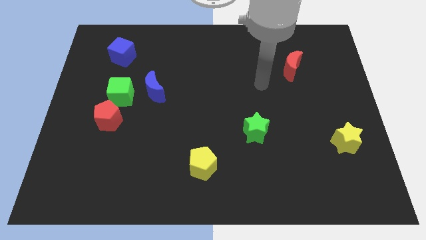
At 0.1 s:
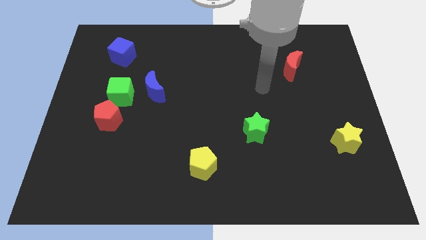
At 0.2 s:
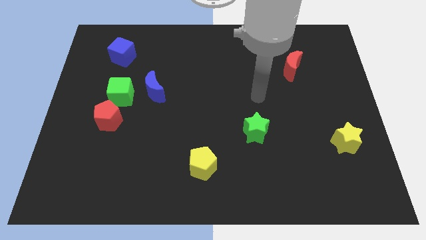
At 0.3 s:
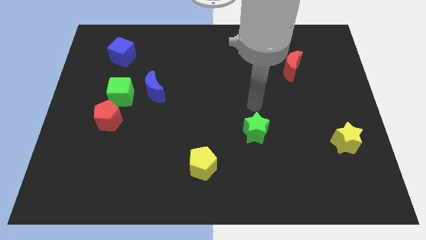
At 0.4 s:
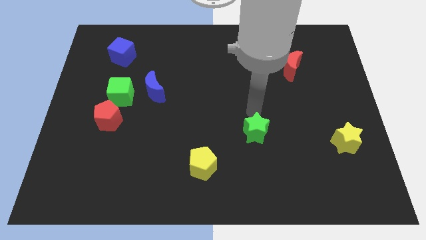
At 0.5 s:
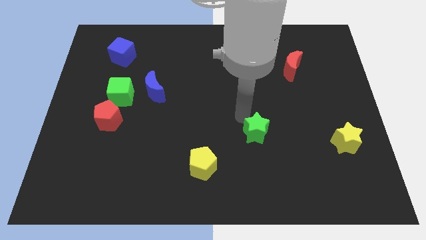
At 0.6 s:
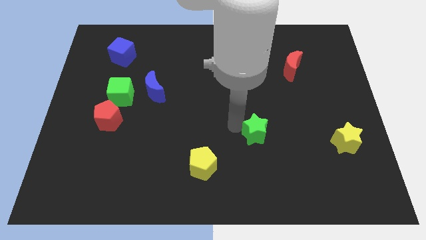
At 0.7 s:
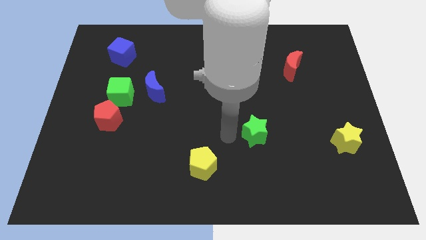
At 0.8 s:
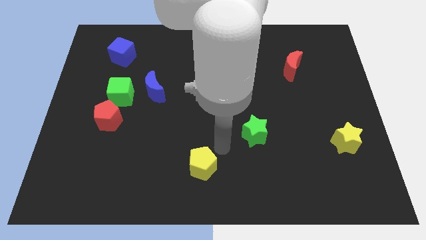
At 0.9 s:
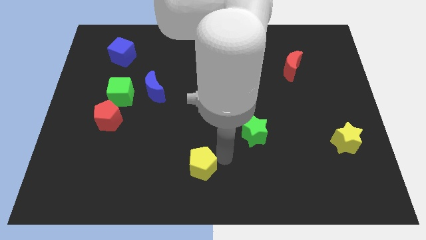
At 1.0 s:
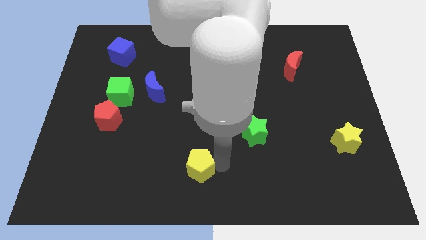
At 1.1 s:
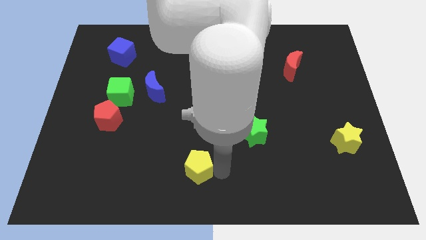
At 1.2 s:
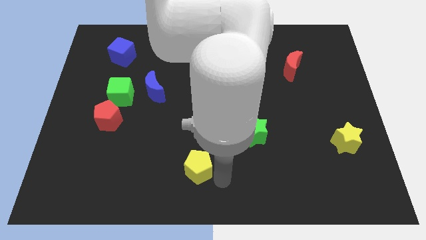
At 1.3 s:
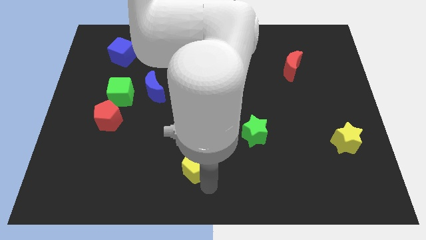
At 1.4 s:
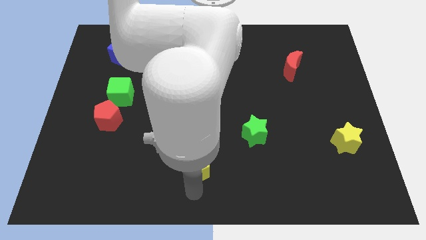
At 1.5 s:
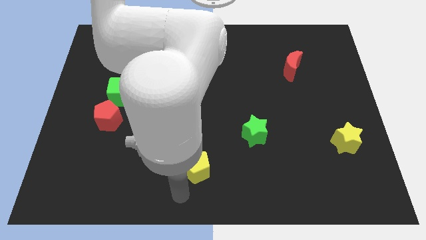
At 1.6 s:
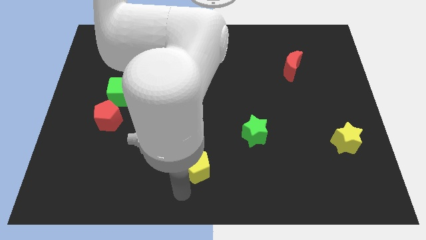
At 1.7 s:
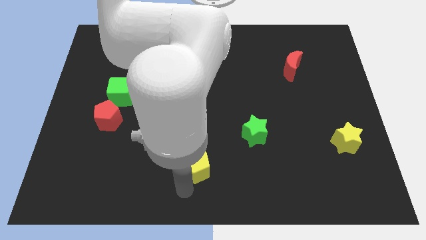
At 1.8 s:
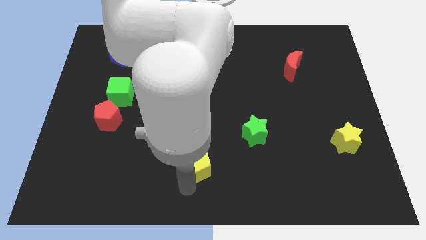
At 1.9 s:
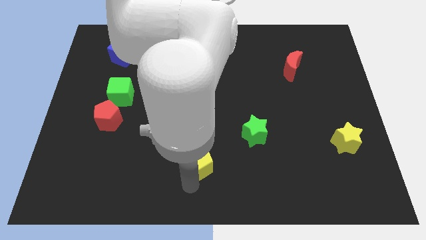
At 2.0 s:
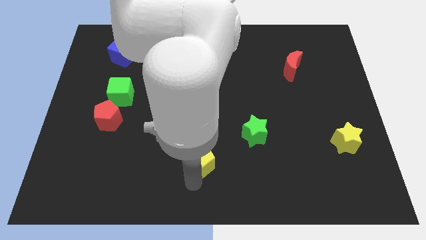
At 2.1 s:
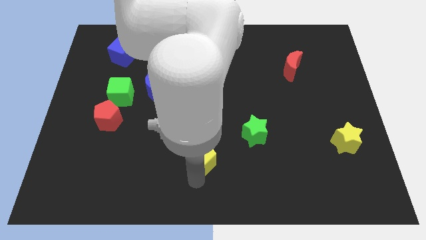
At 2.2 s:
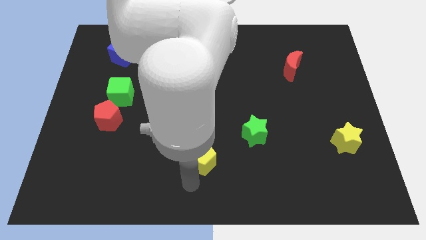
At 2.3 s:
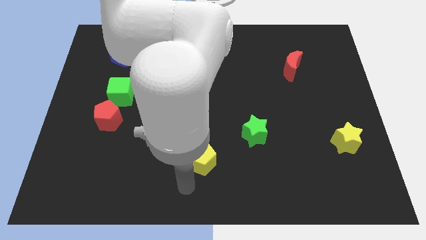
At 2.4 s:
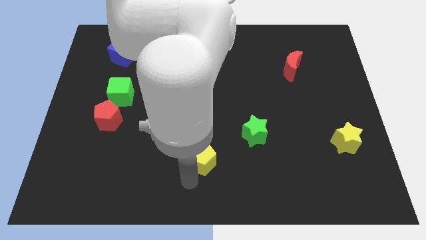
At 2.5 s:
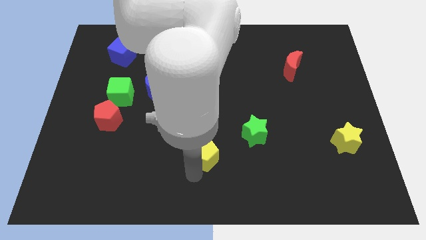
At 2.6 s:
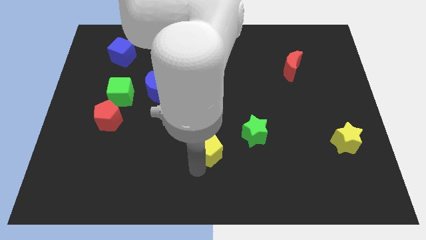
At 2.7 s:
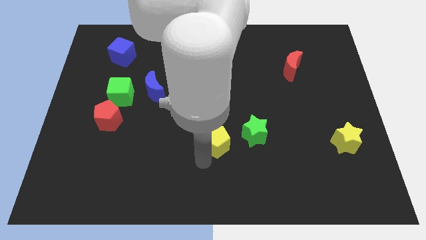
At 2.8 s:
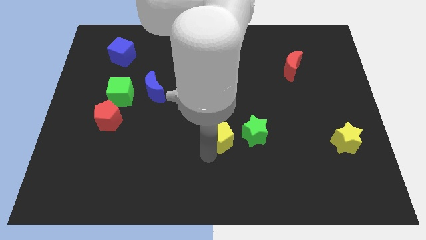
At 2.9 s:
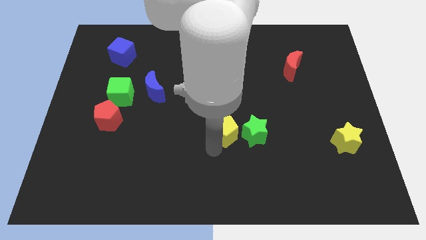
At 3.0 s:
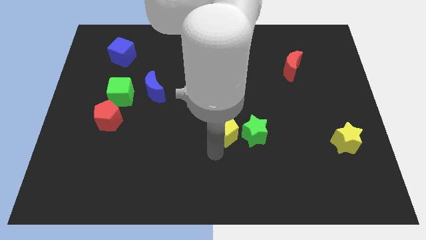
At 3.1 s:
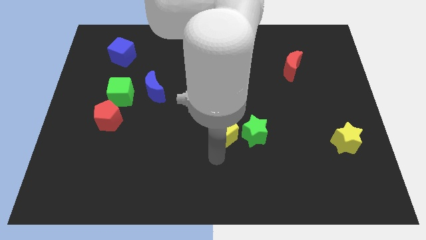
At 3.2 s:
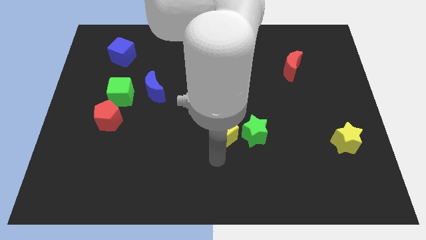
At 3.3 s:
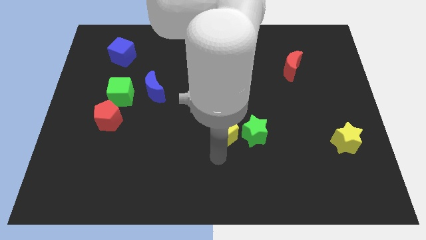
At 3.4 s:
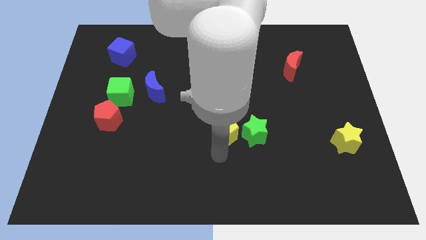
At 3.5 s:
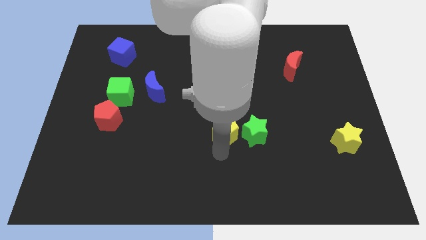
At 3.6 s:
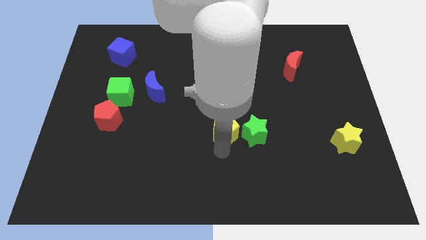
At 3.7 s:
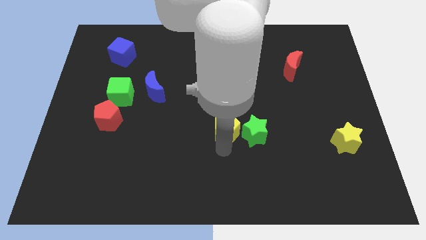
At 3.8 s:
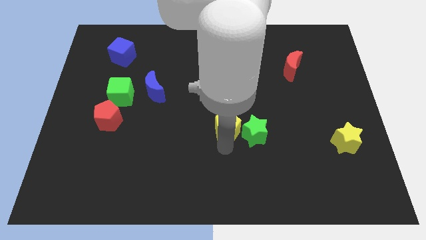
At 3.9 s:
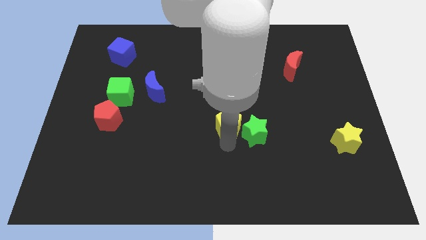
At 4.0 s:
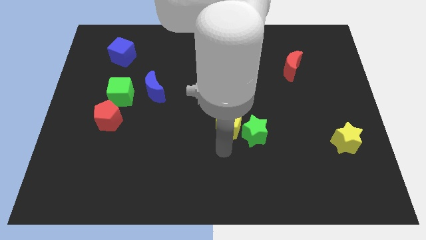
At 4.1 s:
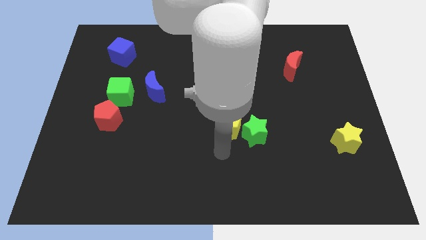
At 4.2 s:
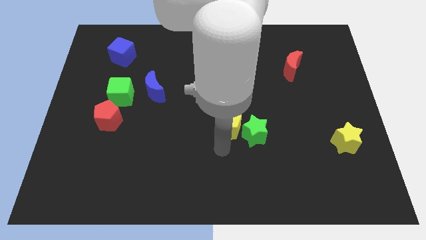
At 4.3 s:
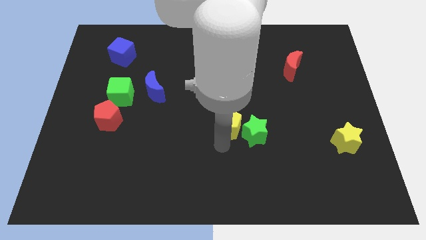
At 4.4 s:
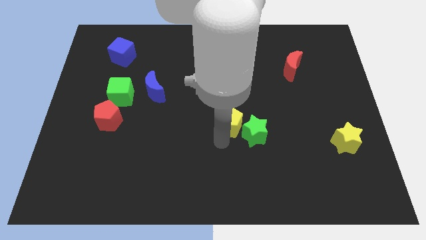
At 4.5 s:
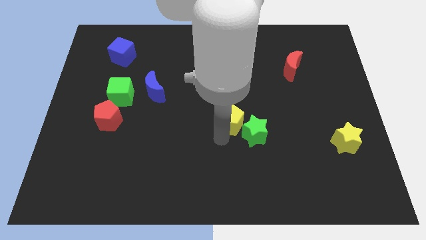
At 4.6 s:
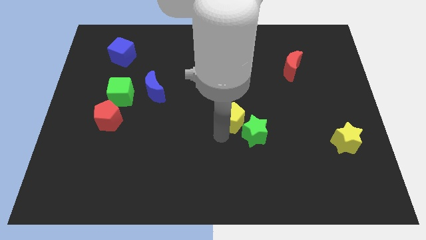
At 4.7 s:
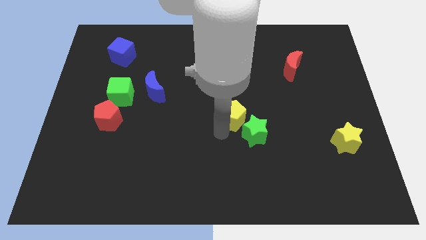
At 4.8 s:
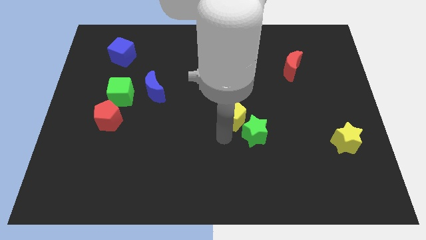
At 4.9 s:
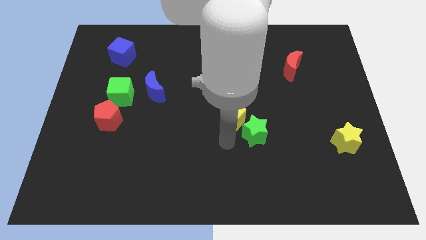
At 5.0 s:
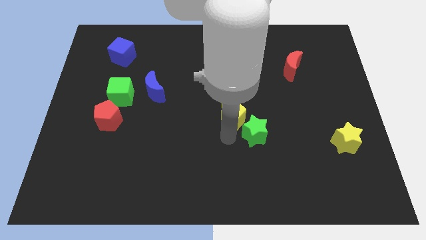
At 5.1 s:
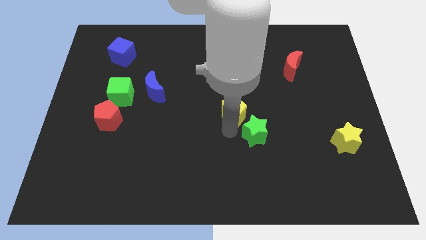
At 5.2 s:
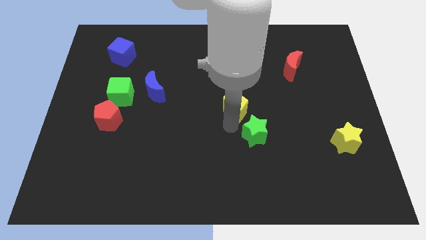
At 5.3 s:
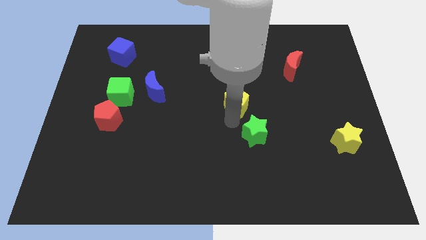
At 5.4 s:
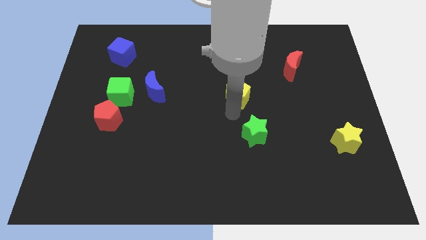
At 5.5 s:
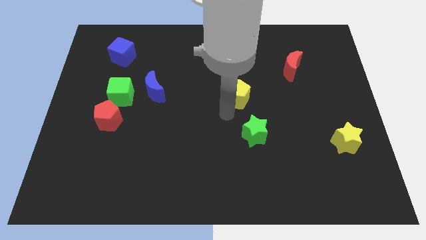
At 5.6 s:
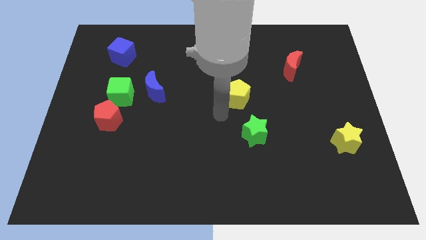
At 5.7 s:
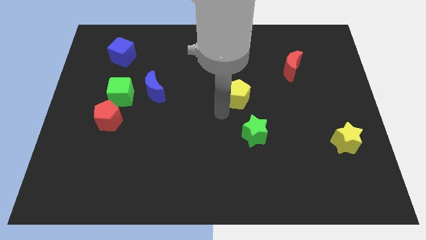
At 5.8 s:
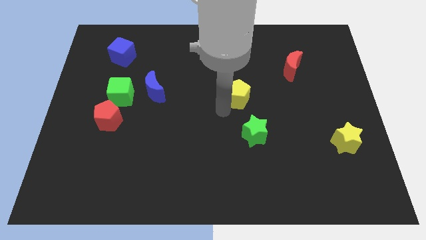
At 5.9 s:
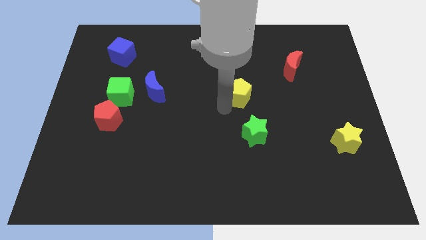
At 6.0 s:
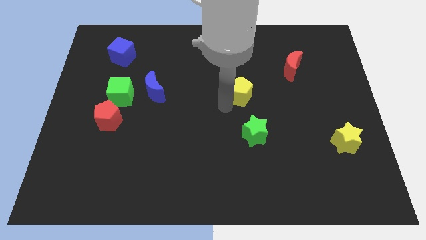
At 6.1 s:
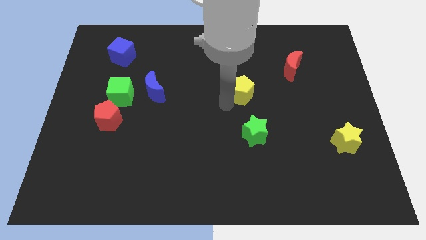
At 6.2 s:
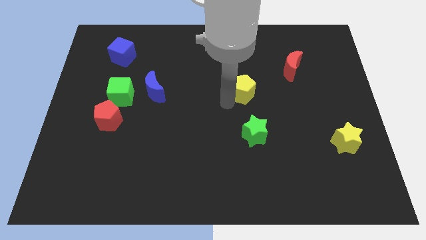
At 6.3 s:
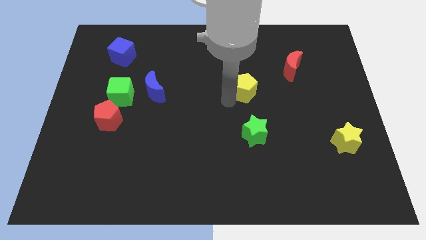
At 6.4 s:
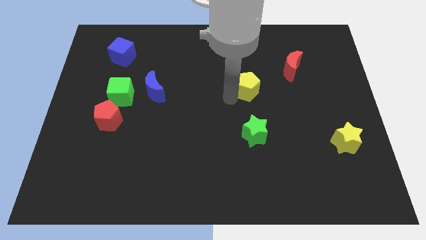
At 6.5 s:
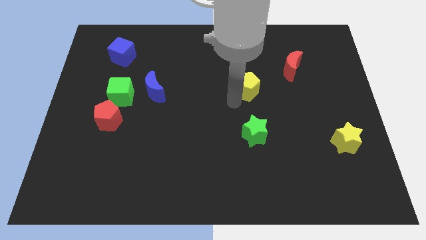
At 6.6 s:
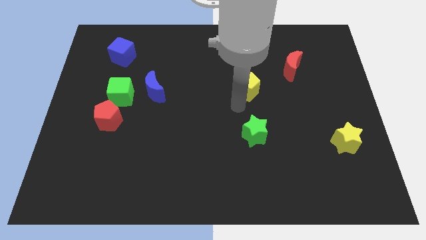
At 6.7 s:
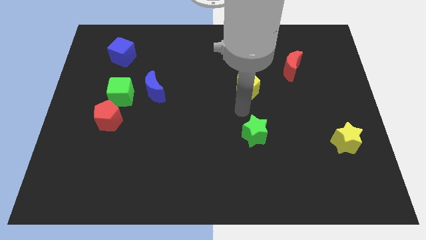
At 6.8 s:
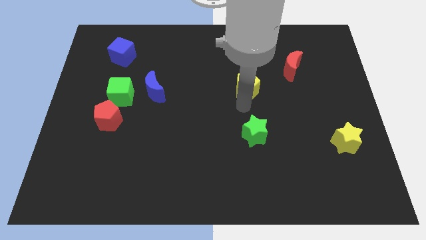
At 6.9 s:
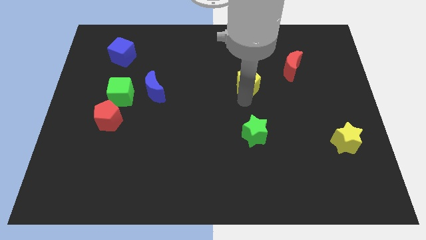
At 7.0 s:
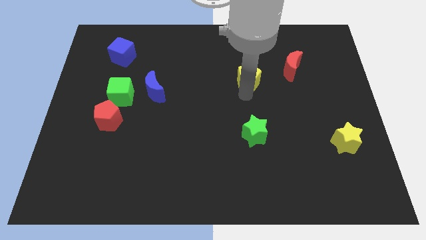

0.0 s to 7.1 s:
push the yellow pentagon just left of the red moon

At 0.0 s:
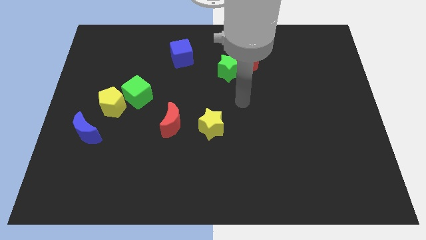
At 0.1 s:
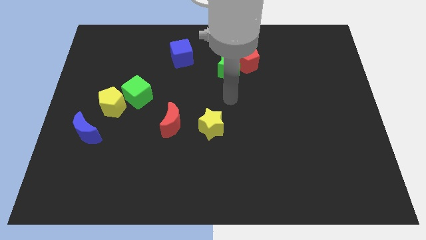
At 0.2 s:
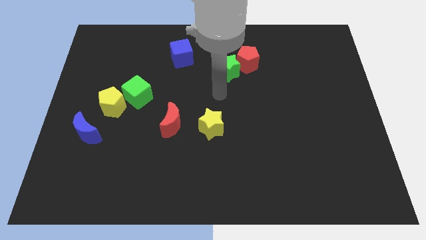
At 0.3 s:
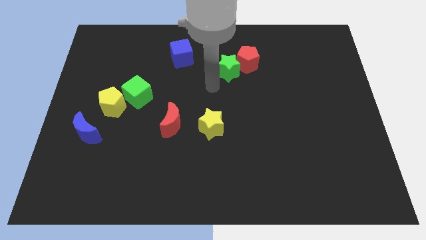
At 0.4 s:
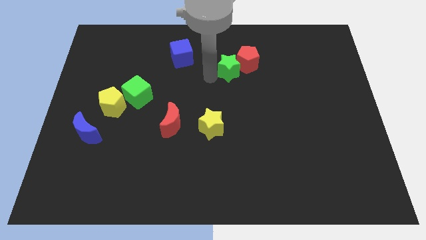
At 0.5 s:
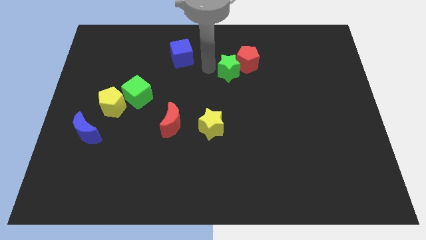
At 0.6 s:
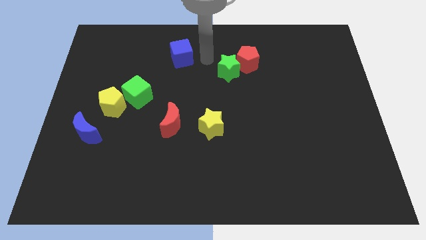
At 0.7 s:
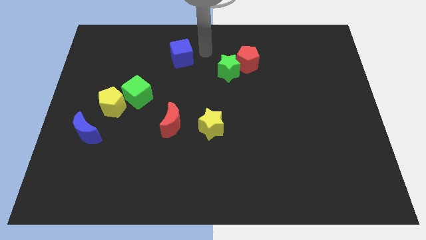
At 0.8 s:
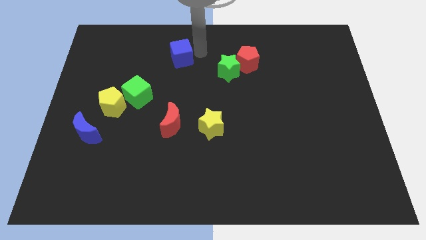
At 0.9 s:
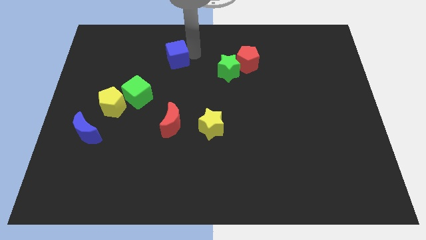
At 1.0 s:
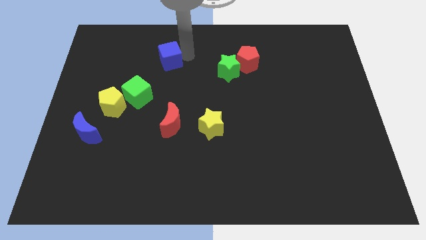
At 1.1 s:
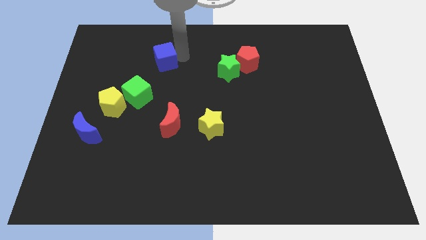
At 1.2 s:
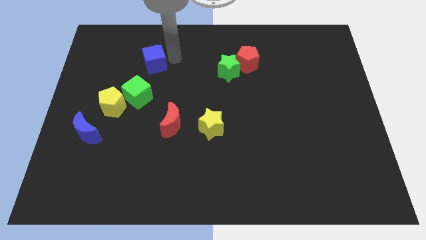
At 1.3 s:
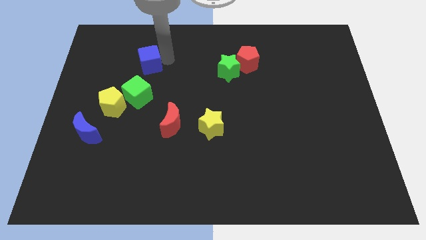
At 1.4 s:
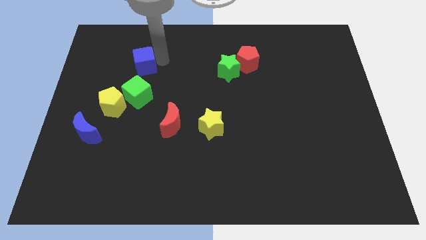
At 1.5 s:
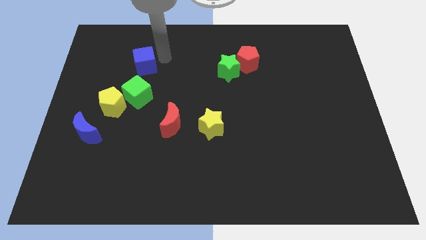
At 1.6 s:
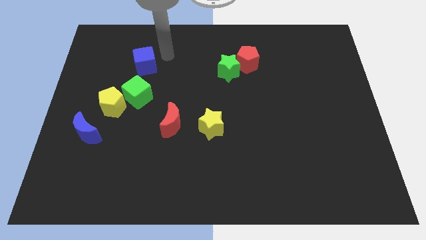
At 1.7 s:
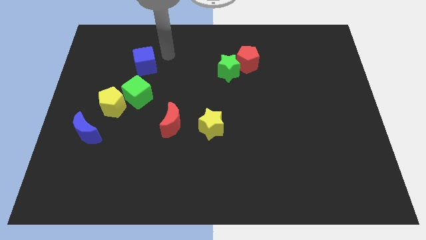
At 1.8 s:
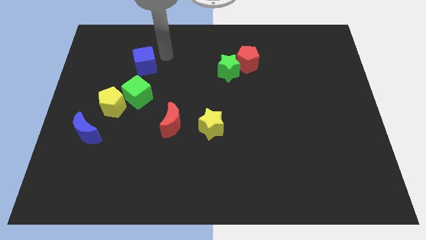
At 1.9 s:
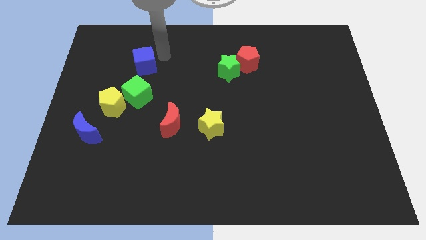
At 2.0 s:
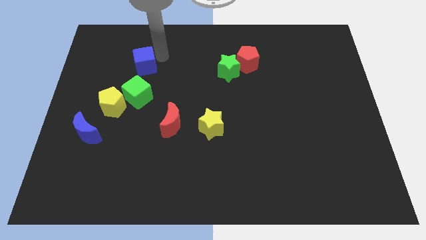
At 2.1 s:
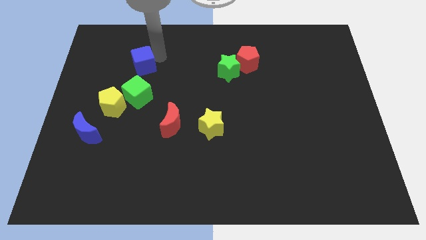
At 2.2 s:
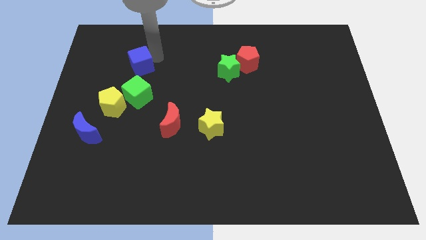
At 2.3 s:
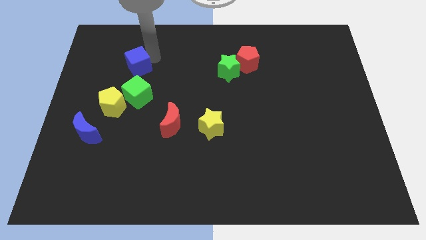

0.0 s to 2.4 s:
put the blue cube to the top of the yellow pentagon
